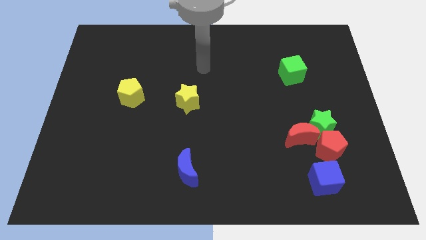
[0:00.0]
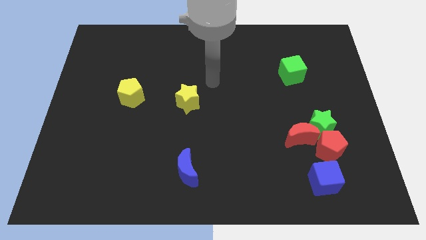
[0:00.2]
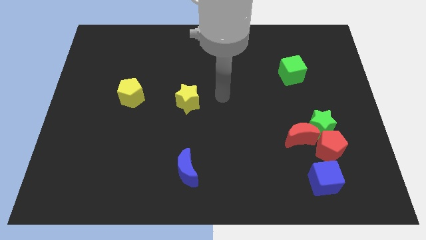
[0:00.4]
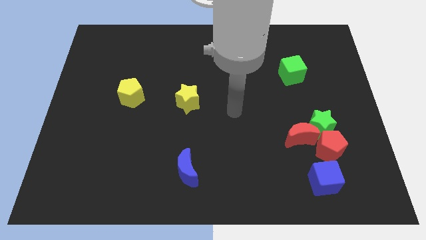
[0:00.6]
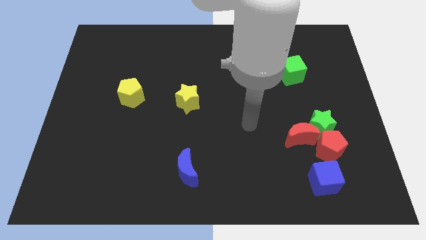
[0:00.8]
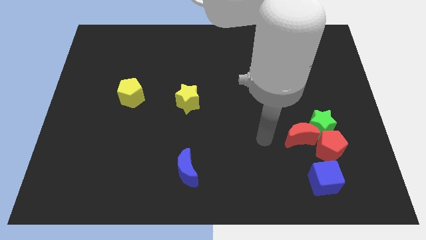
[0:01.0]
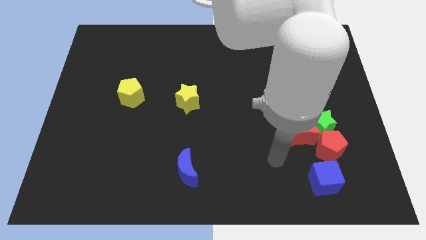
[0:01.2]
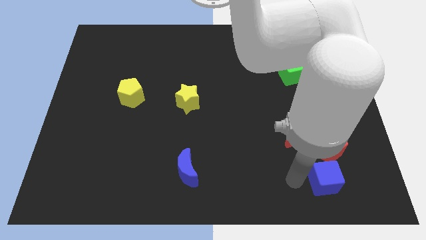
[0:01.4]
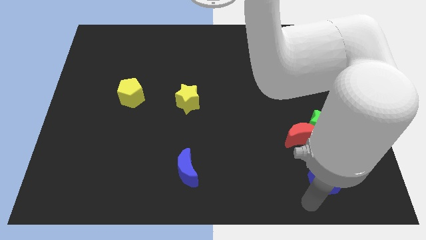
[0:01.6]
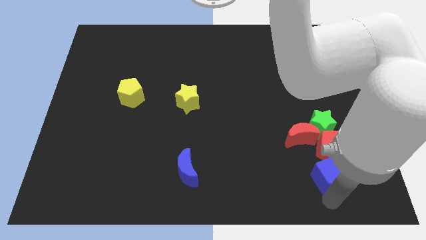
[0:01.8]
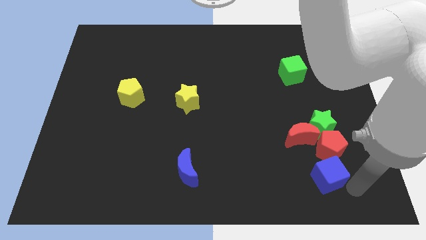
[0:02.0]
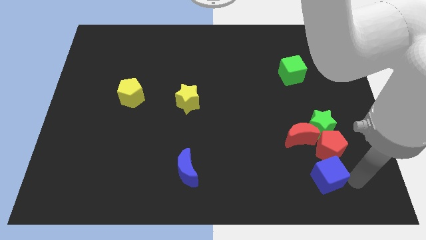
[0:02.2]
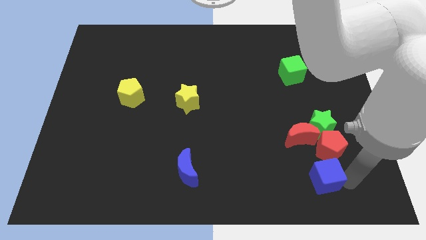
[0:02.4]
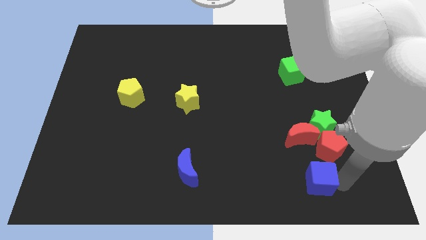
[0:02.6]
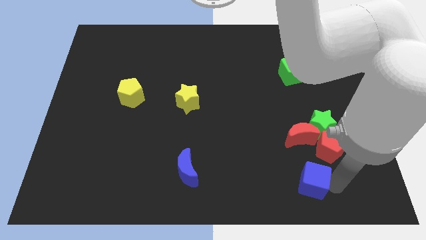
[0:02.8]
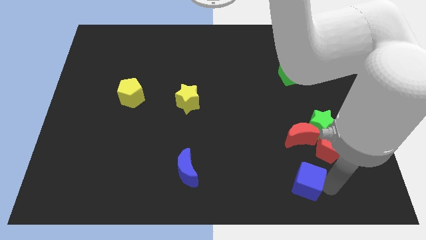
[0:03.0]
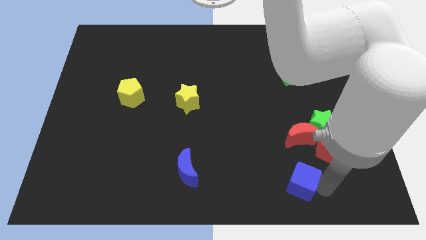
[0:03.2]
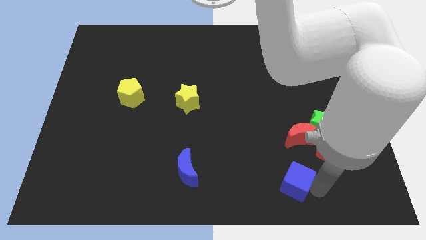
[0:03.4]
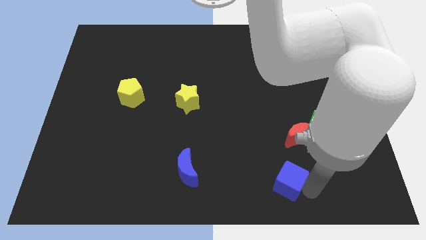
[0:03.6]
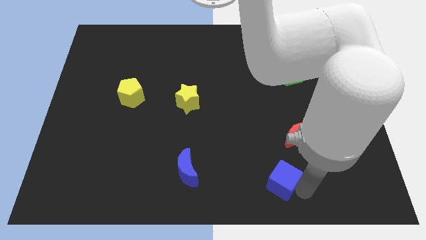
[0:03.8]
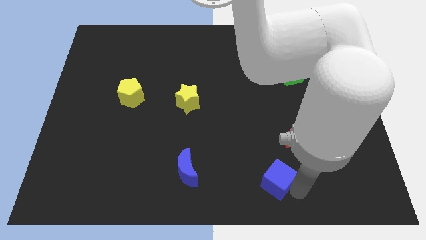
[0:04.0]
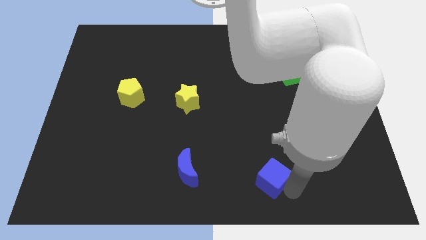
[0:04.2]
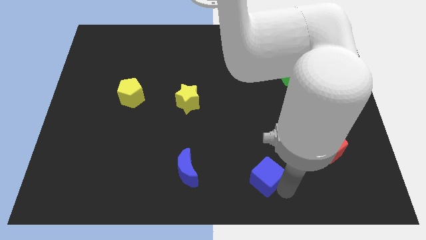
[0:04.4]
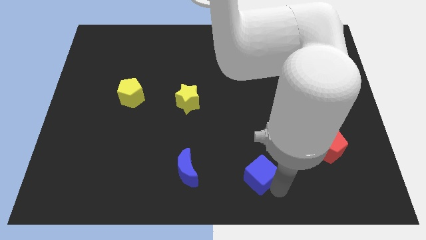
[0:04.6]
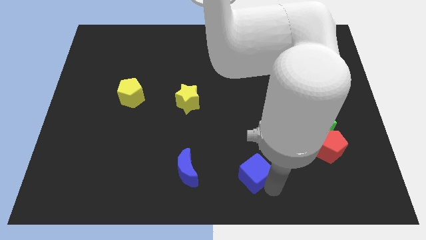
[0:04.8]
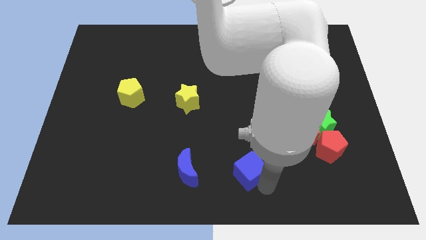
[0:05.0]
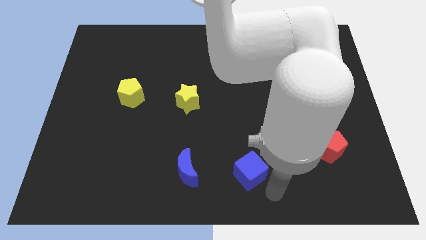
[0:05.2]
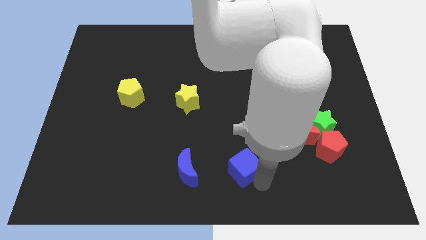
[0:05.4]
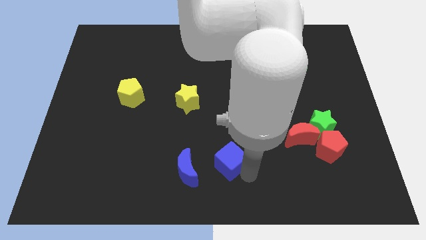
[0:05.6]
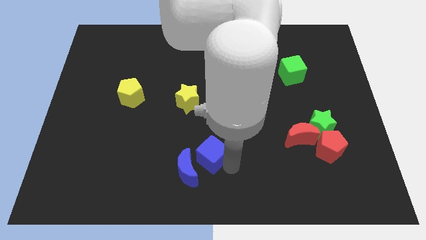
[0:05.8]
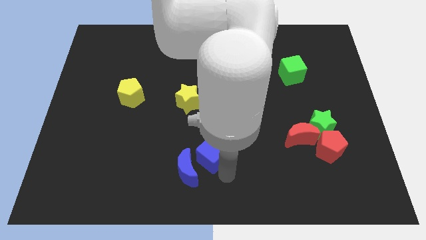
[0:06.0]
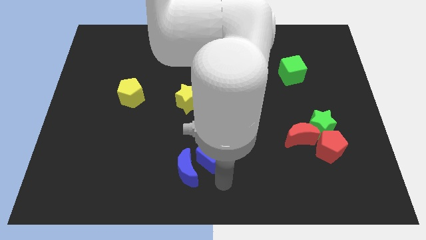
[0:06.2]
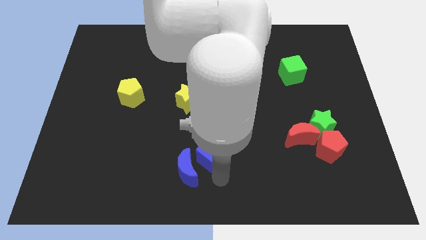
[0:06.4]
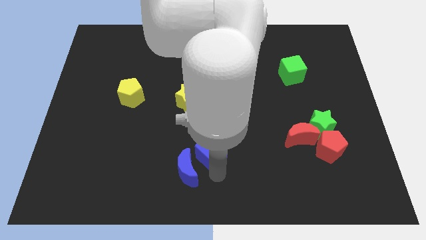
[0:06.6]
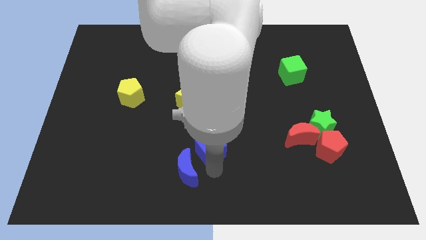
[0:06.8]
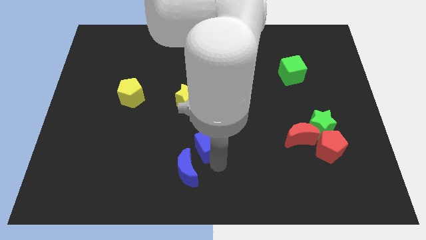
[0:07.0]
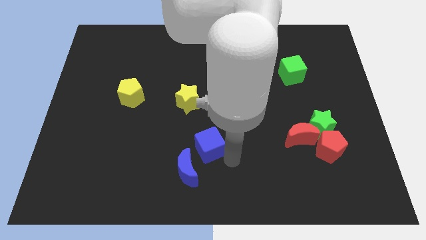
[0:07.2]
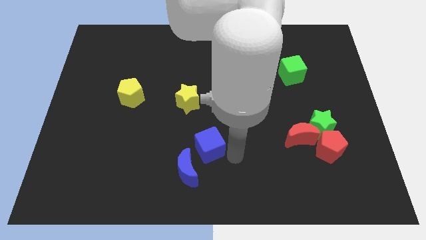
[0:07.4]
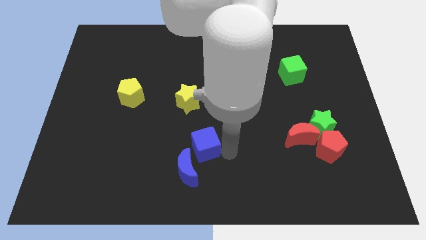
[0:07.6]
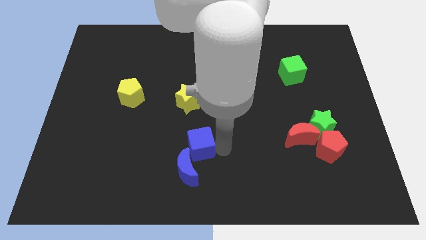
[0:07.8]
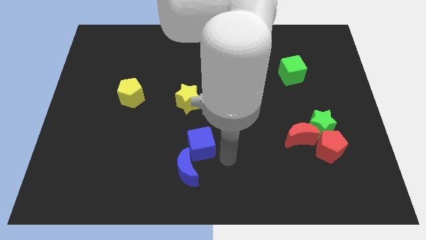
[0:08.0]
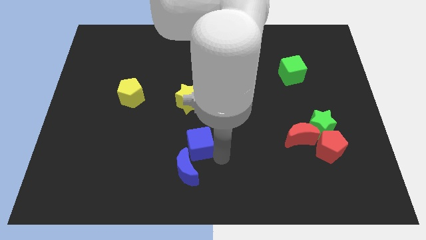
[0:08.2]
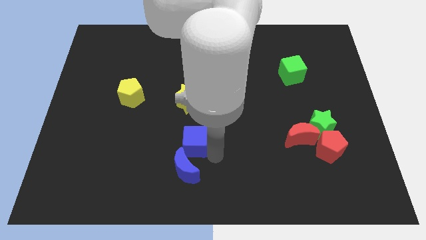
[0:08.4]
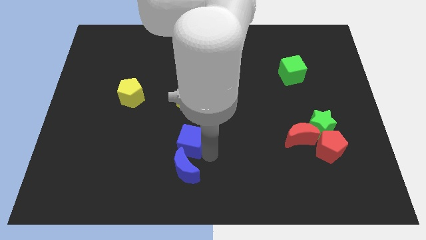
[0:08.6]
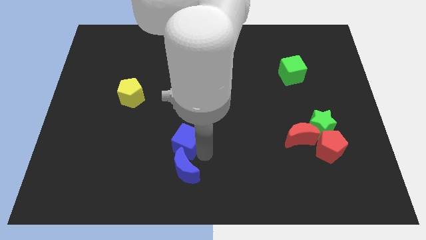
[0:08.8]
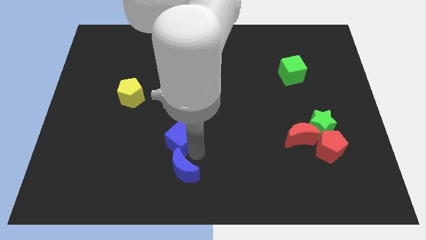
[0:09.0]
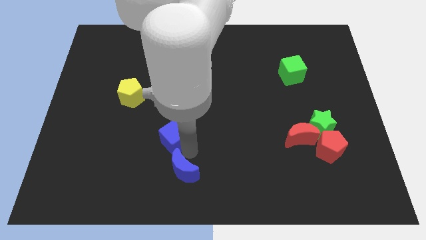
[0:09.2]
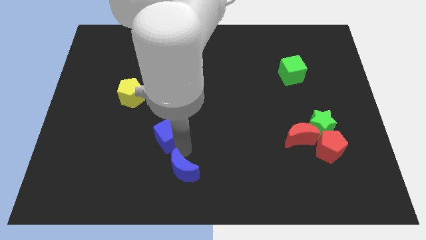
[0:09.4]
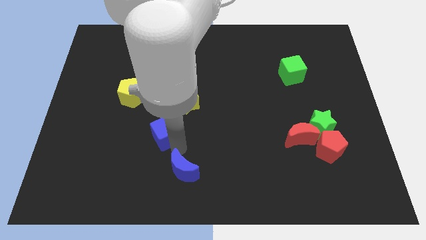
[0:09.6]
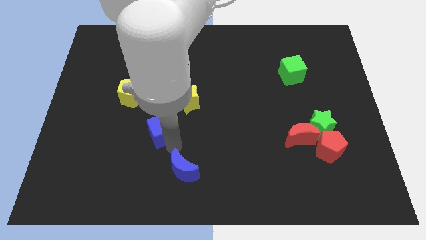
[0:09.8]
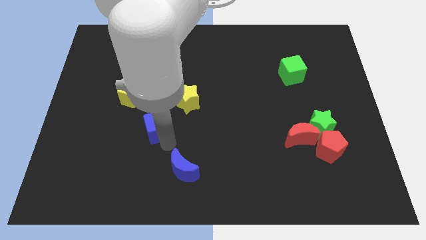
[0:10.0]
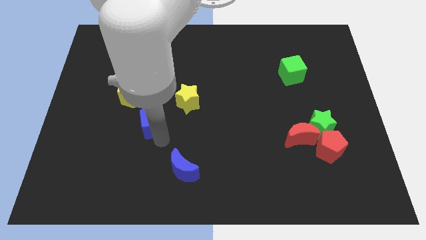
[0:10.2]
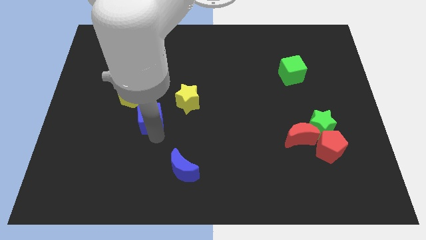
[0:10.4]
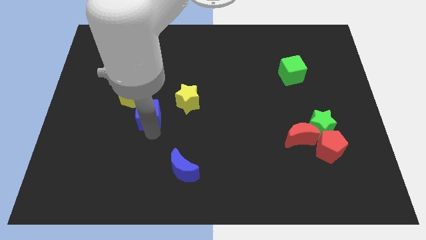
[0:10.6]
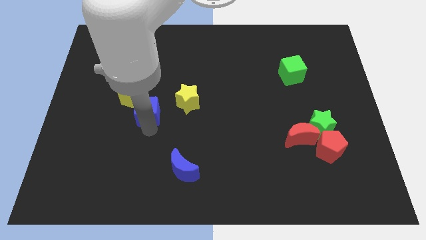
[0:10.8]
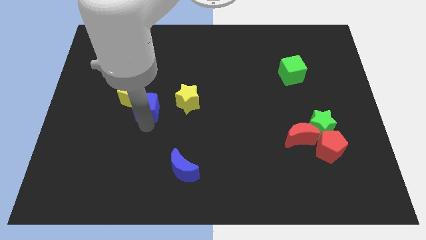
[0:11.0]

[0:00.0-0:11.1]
put the blue cube towards the yellow pentagon

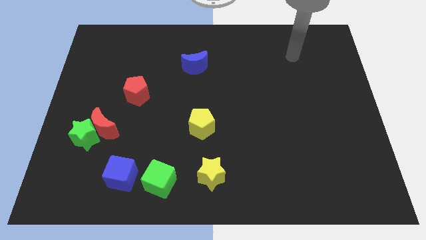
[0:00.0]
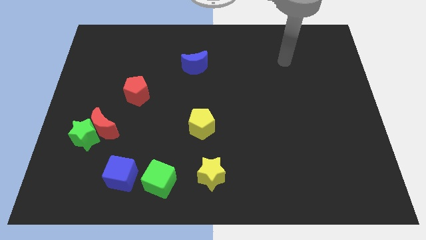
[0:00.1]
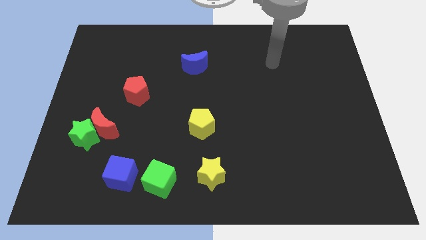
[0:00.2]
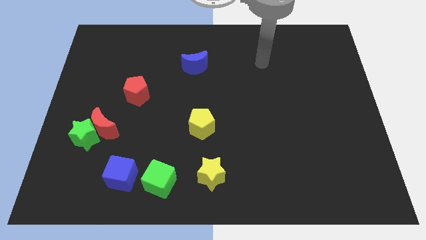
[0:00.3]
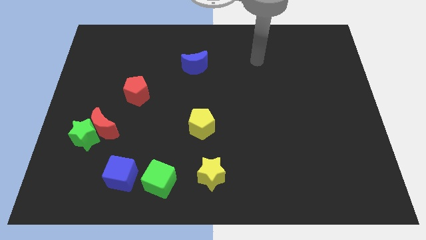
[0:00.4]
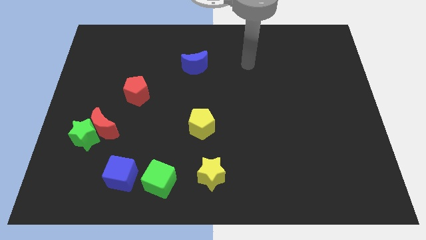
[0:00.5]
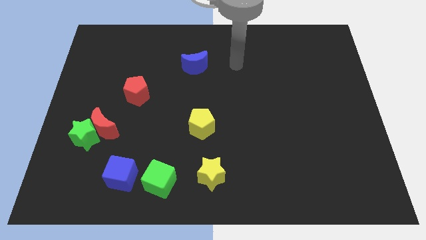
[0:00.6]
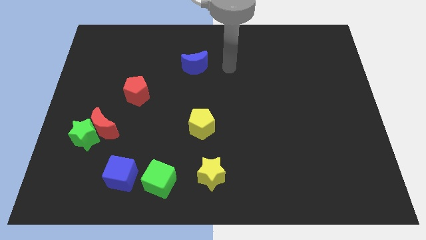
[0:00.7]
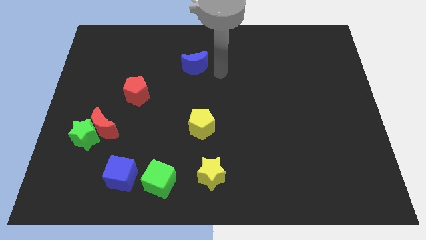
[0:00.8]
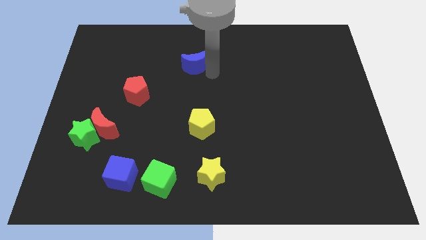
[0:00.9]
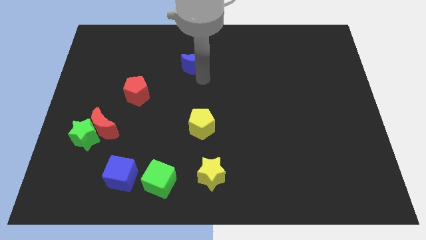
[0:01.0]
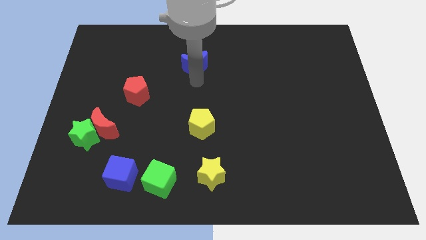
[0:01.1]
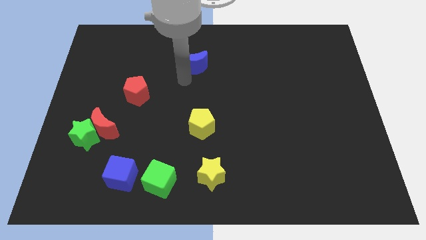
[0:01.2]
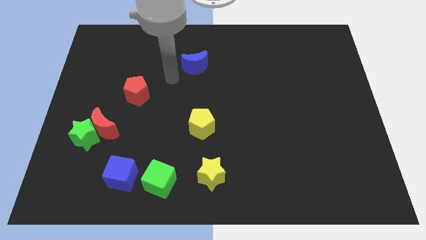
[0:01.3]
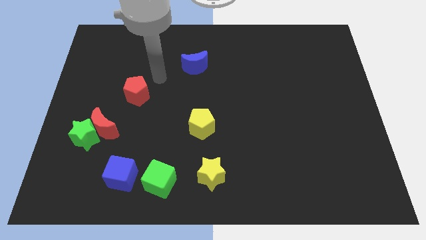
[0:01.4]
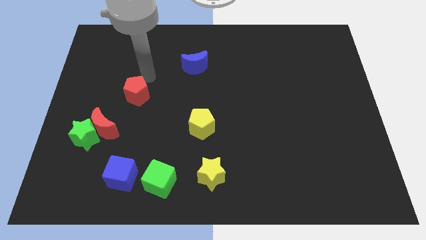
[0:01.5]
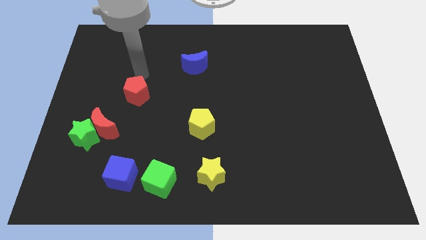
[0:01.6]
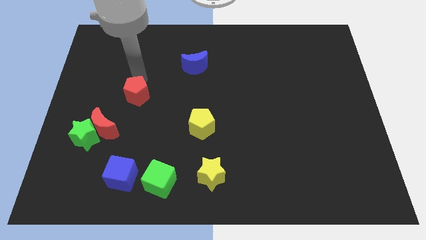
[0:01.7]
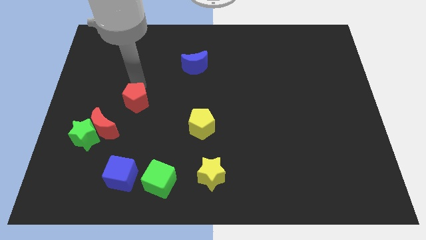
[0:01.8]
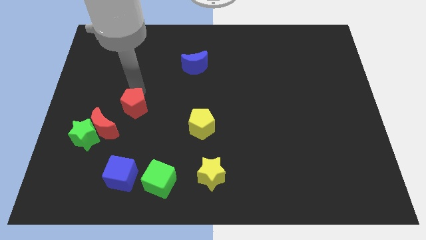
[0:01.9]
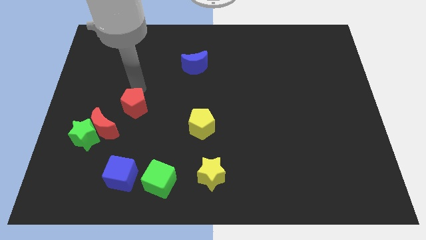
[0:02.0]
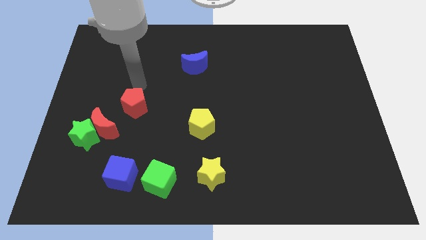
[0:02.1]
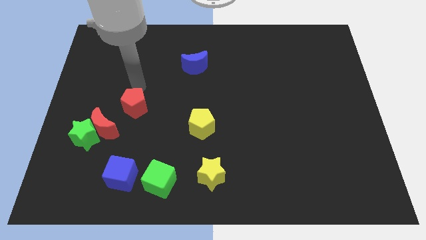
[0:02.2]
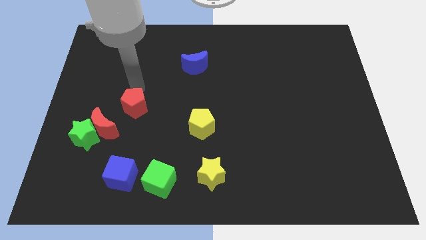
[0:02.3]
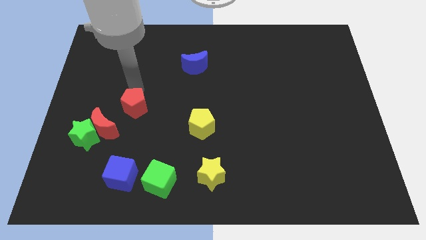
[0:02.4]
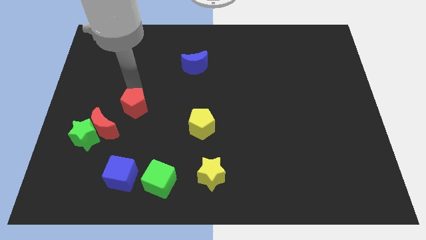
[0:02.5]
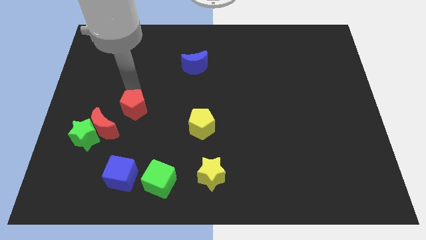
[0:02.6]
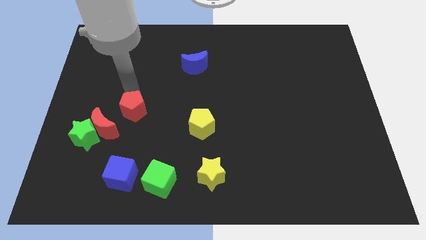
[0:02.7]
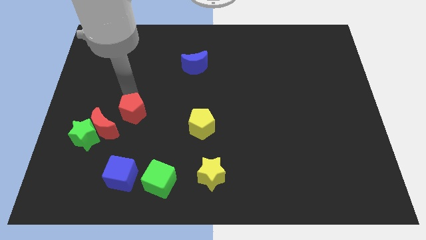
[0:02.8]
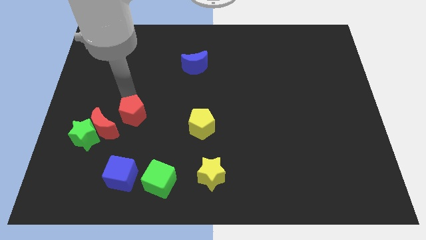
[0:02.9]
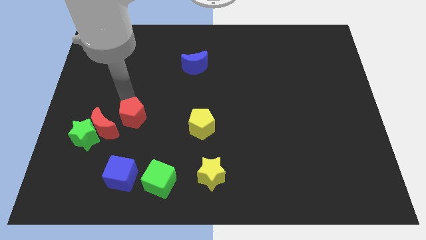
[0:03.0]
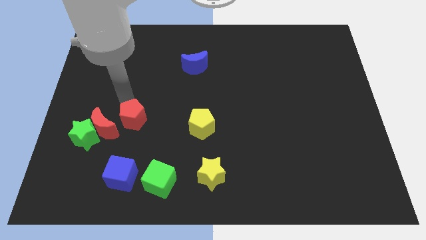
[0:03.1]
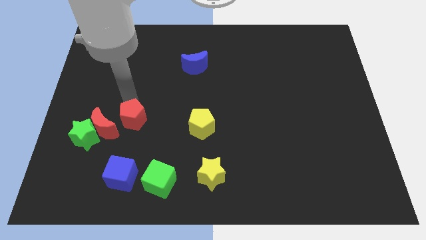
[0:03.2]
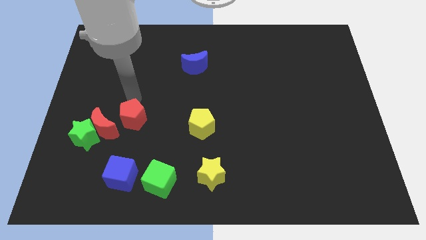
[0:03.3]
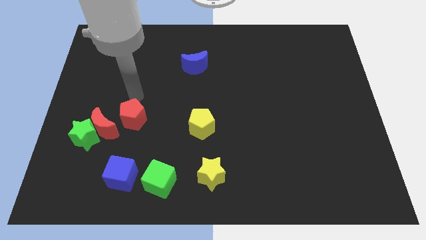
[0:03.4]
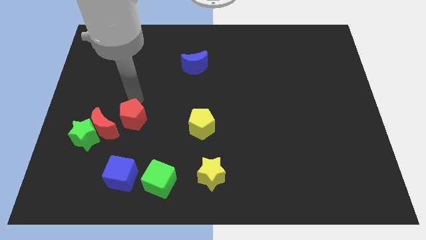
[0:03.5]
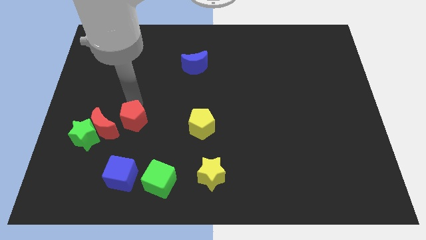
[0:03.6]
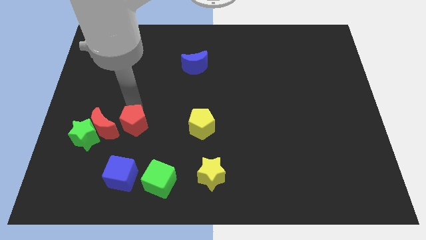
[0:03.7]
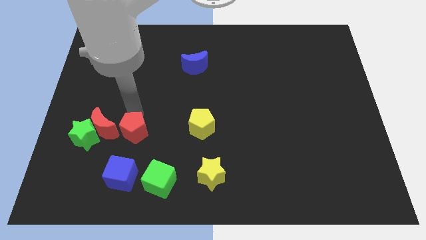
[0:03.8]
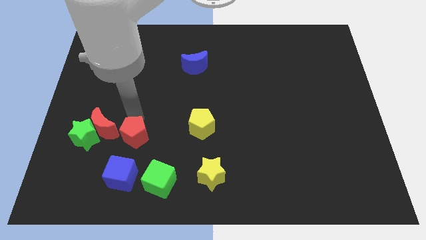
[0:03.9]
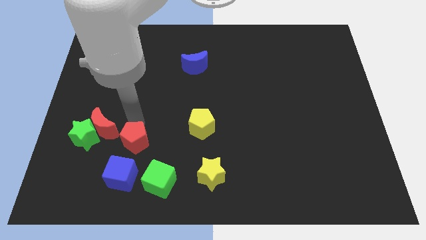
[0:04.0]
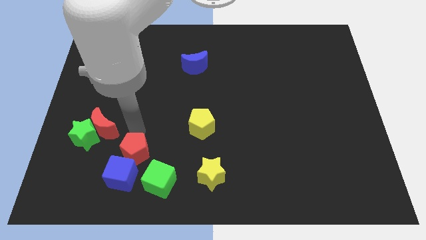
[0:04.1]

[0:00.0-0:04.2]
move the red pentagon close to the blue cube
